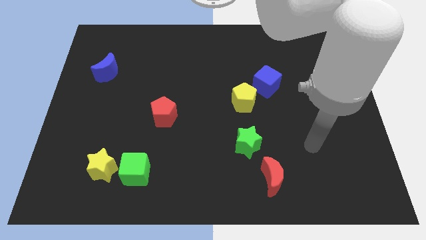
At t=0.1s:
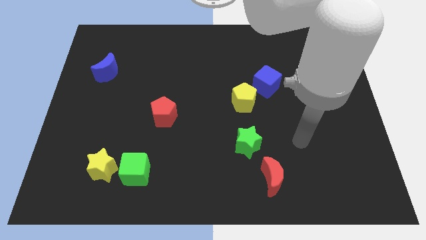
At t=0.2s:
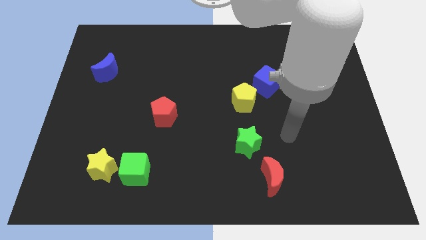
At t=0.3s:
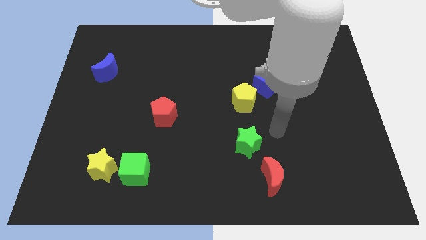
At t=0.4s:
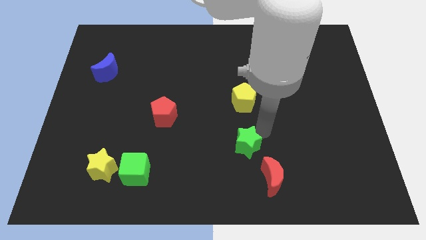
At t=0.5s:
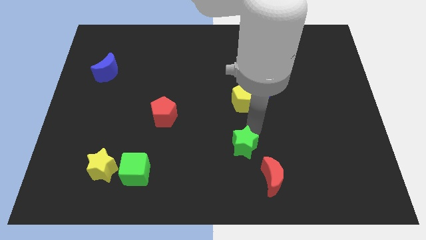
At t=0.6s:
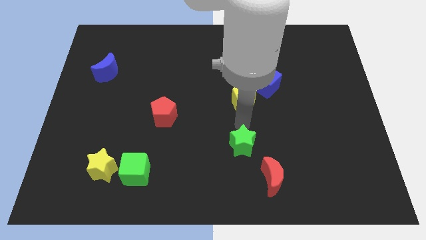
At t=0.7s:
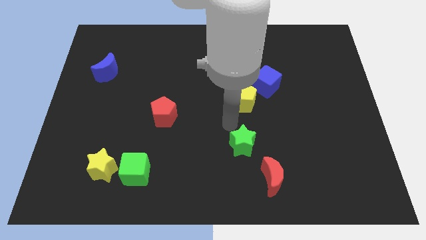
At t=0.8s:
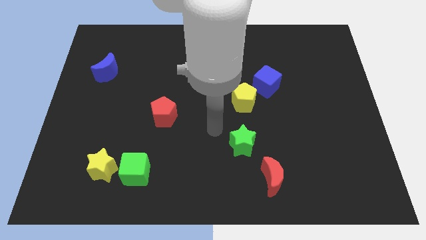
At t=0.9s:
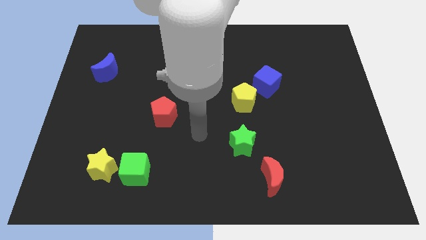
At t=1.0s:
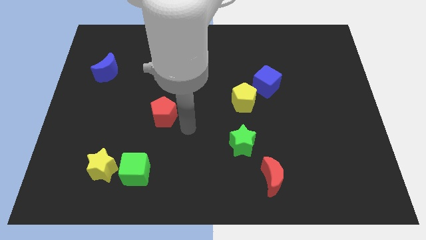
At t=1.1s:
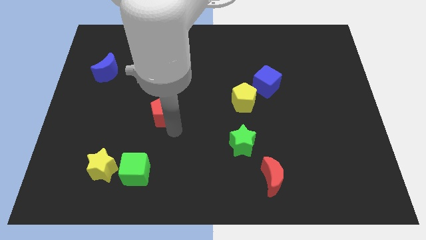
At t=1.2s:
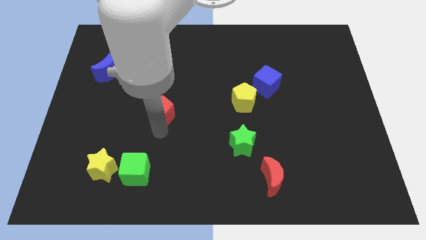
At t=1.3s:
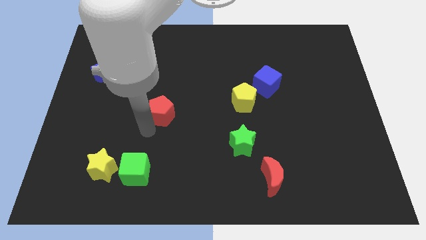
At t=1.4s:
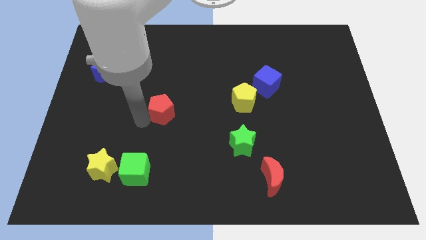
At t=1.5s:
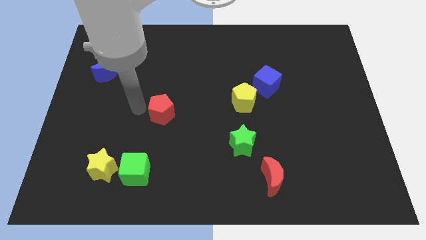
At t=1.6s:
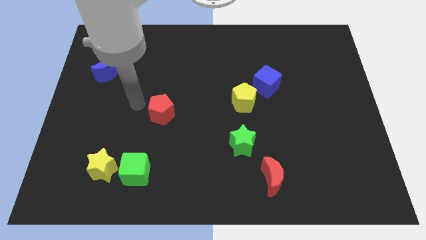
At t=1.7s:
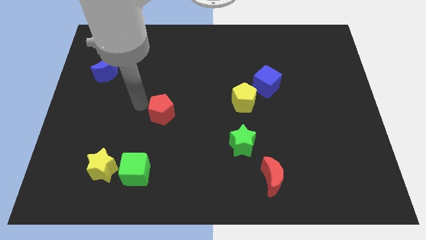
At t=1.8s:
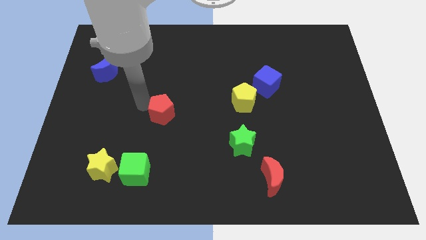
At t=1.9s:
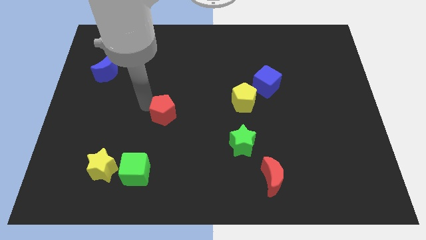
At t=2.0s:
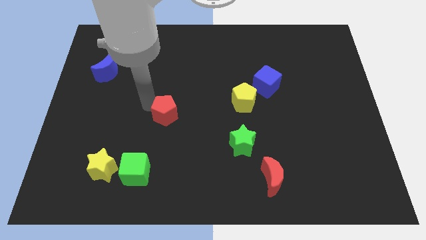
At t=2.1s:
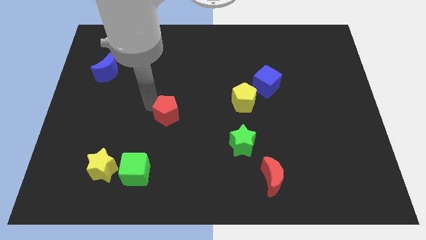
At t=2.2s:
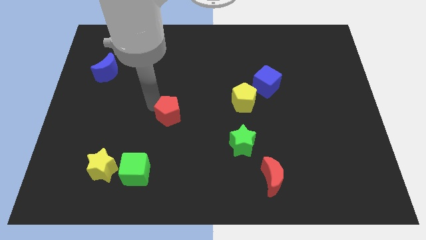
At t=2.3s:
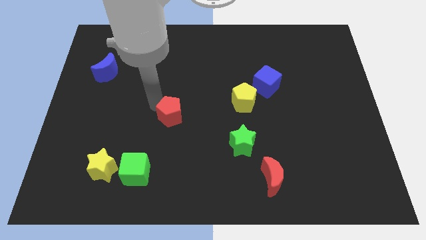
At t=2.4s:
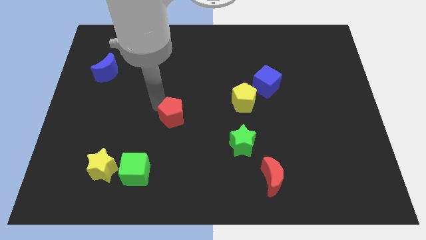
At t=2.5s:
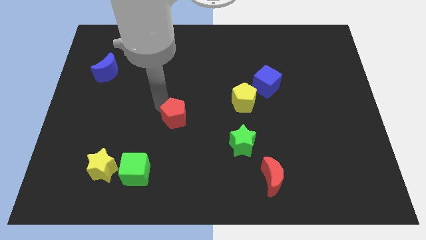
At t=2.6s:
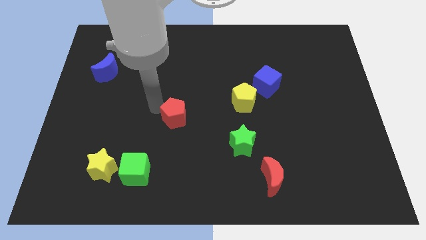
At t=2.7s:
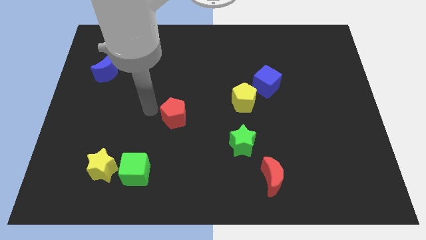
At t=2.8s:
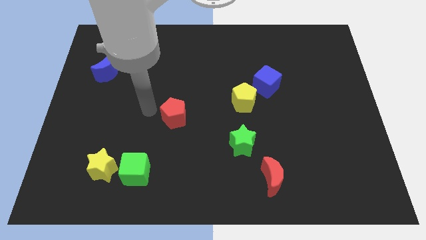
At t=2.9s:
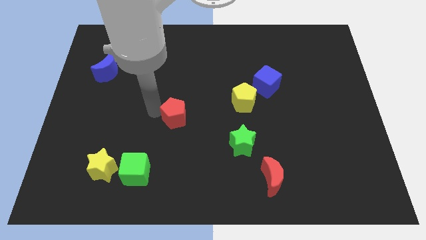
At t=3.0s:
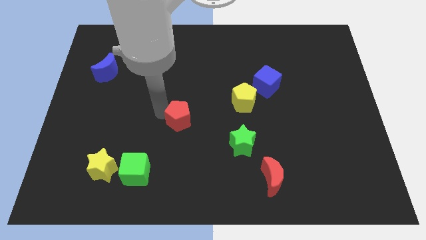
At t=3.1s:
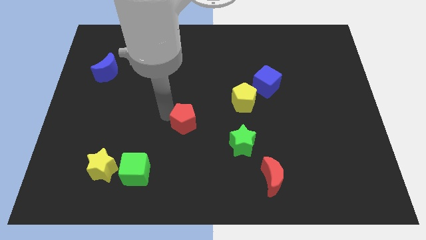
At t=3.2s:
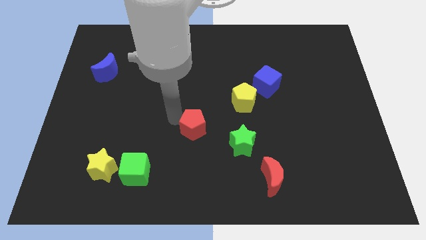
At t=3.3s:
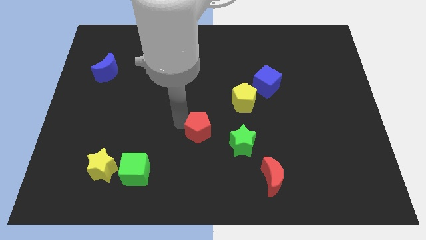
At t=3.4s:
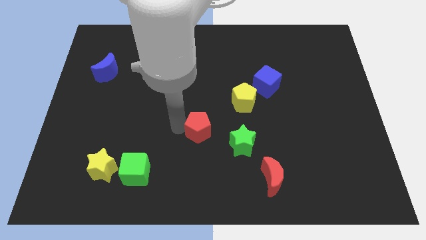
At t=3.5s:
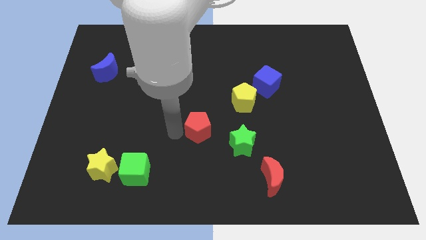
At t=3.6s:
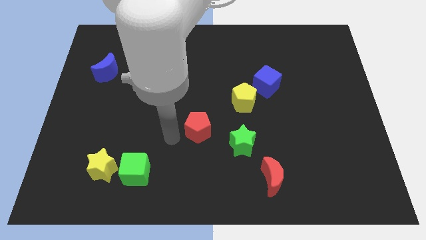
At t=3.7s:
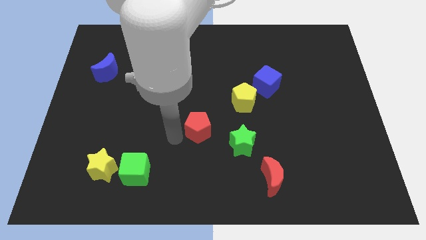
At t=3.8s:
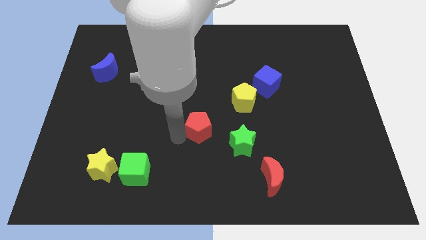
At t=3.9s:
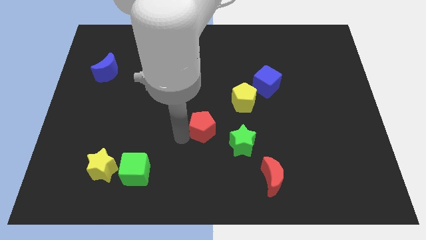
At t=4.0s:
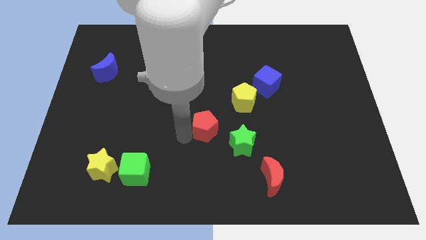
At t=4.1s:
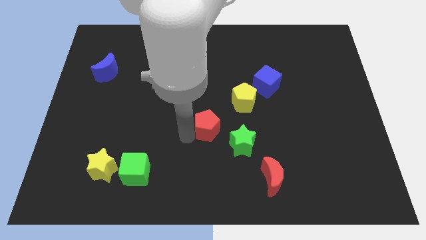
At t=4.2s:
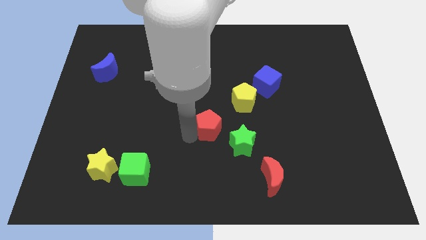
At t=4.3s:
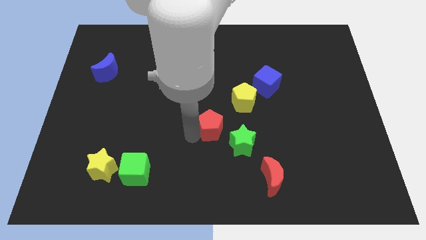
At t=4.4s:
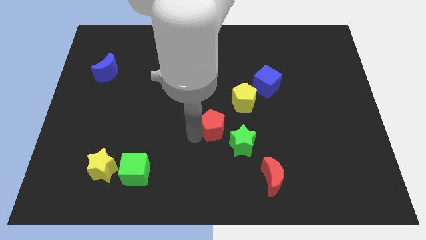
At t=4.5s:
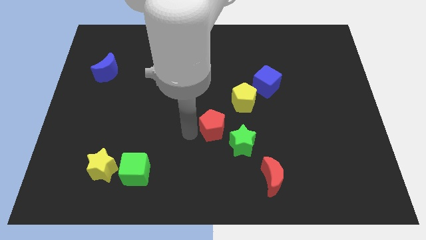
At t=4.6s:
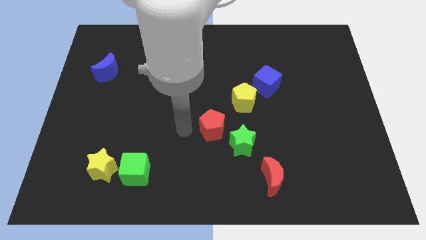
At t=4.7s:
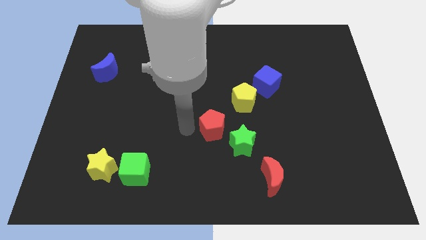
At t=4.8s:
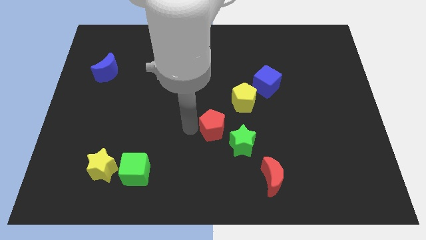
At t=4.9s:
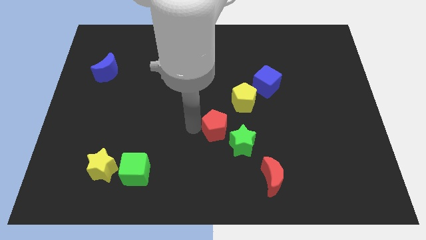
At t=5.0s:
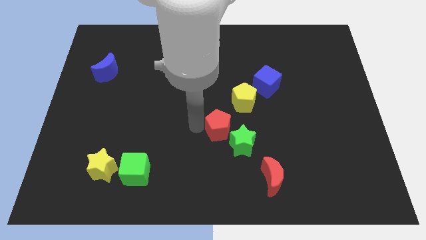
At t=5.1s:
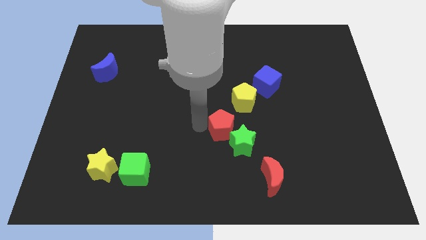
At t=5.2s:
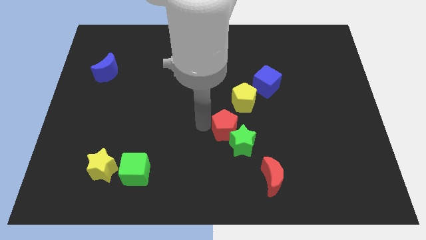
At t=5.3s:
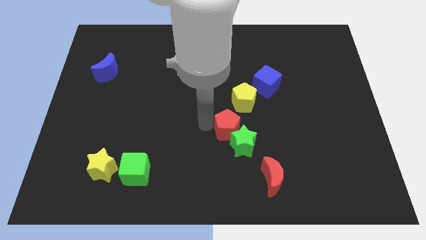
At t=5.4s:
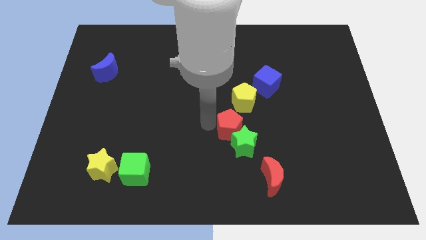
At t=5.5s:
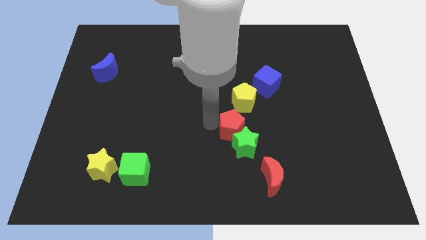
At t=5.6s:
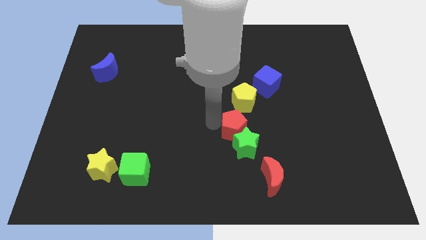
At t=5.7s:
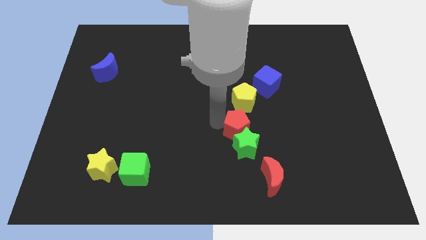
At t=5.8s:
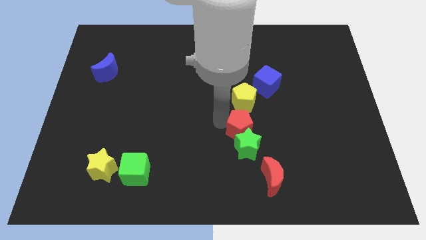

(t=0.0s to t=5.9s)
put the red pentagon to the top right side of the green star

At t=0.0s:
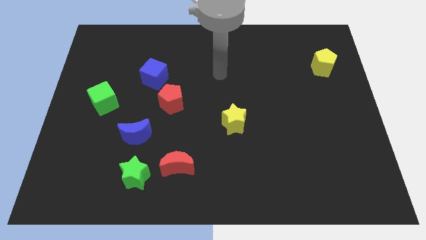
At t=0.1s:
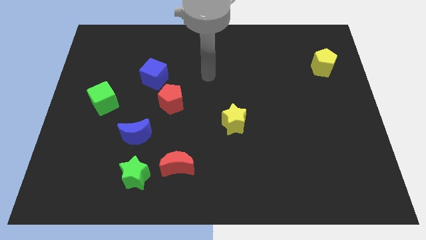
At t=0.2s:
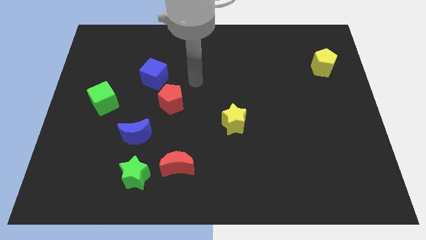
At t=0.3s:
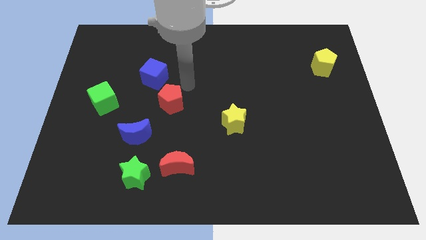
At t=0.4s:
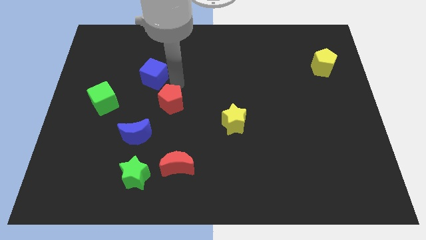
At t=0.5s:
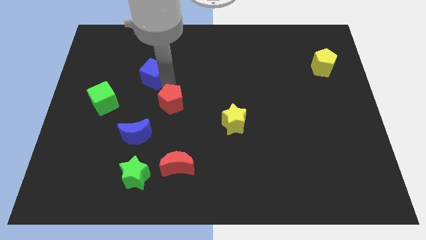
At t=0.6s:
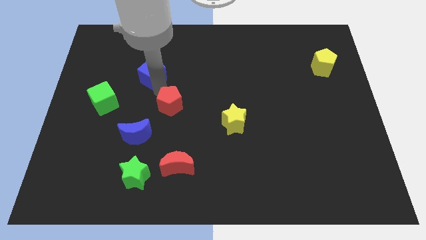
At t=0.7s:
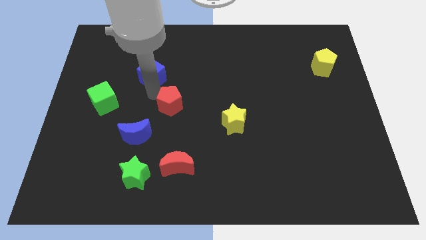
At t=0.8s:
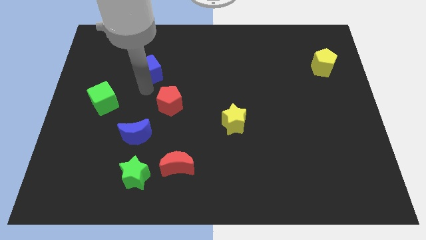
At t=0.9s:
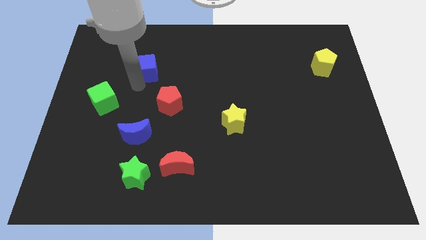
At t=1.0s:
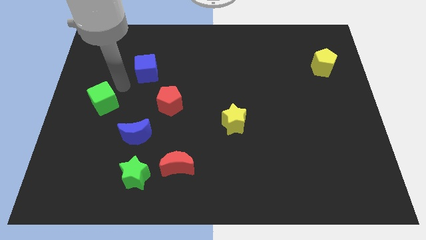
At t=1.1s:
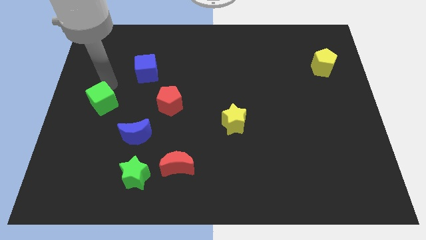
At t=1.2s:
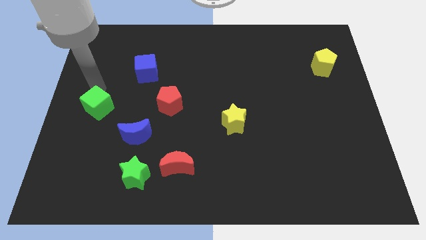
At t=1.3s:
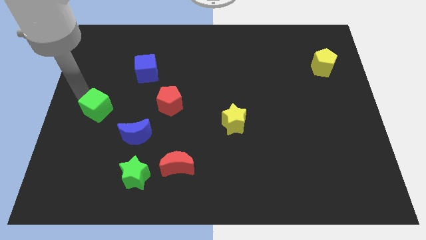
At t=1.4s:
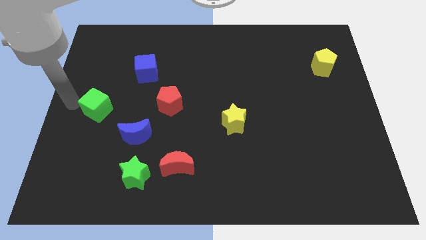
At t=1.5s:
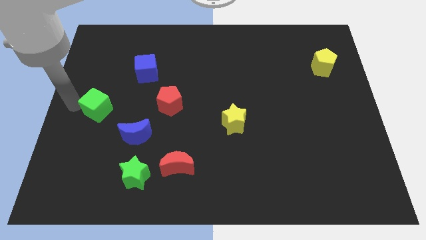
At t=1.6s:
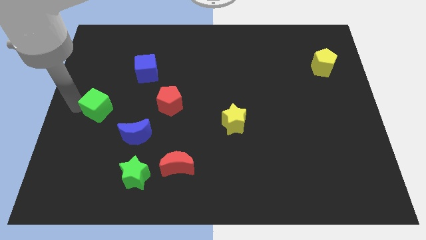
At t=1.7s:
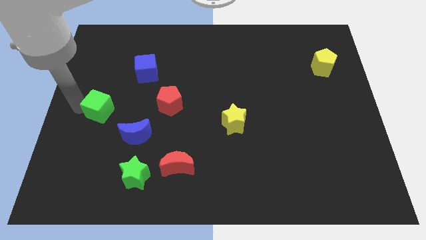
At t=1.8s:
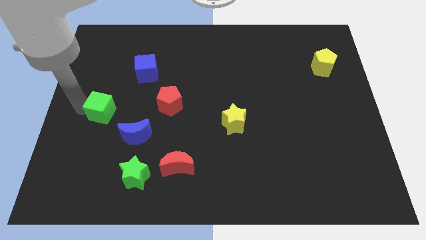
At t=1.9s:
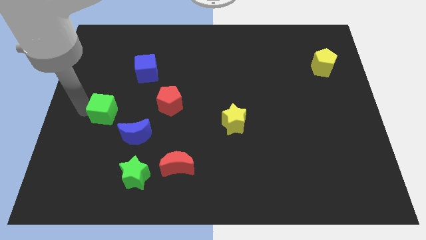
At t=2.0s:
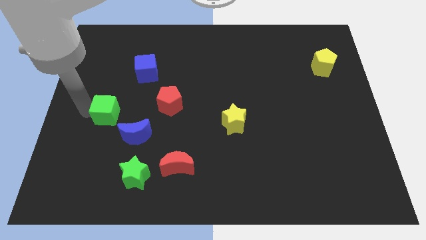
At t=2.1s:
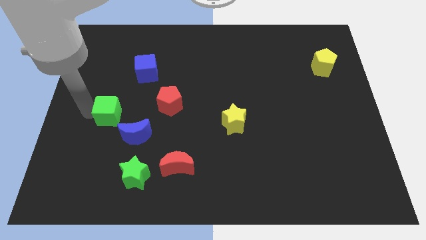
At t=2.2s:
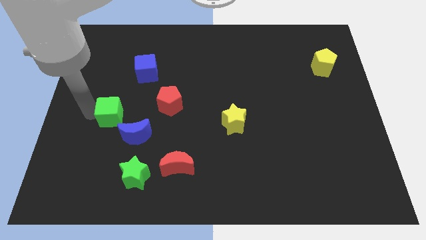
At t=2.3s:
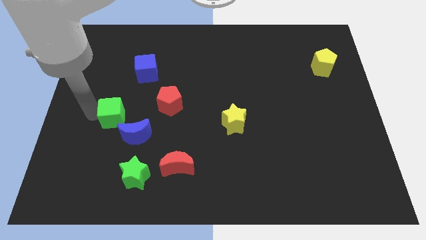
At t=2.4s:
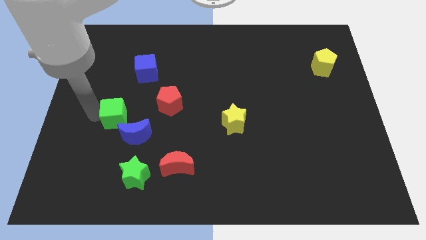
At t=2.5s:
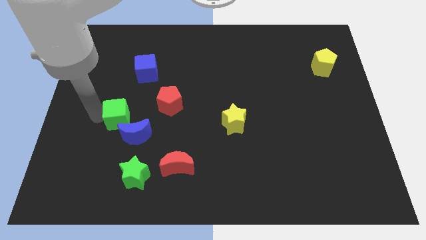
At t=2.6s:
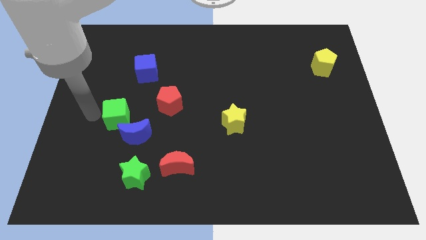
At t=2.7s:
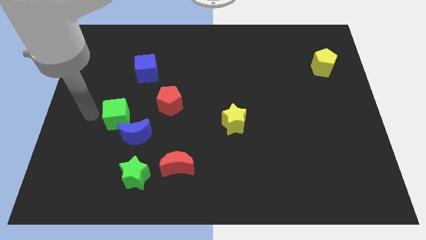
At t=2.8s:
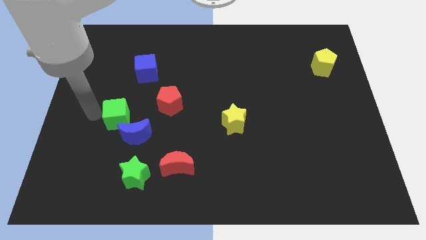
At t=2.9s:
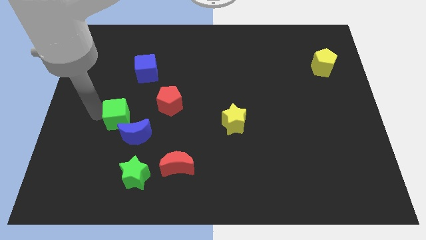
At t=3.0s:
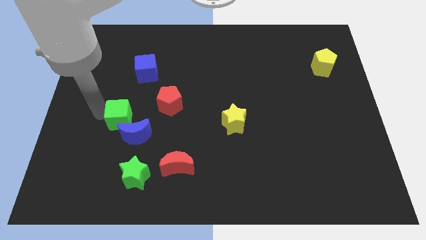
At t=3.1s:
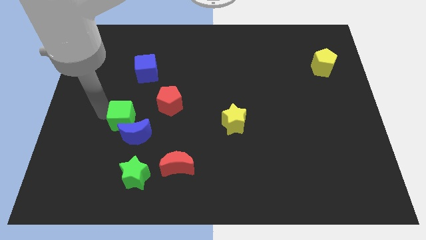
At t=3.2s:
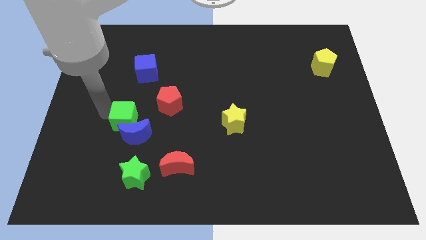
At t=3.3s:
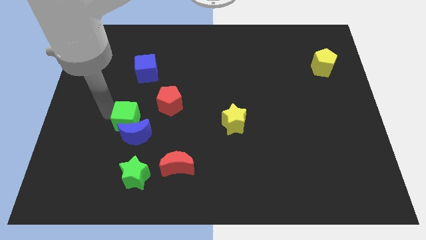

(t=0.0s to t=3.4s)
slide the green cube to the top side of the green star
